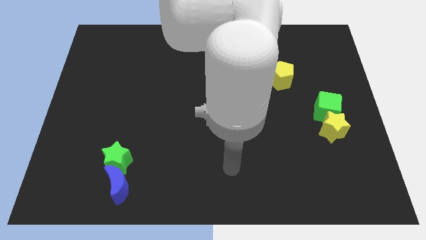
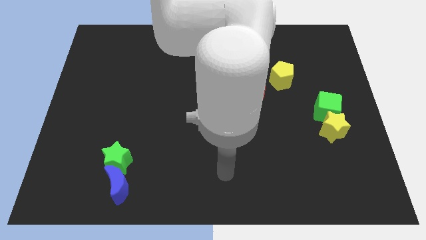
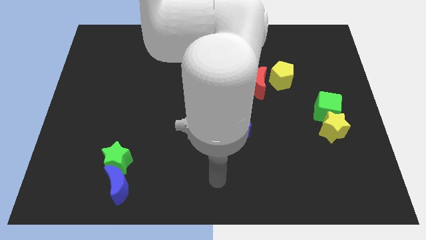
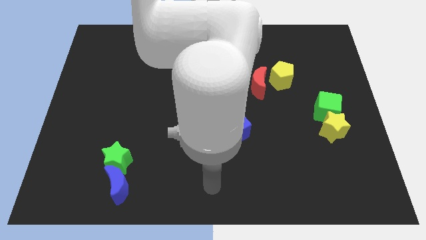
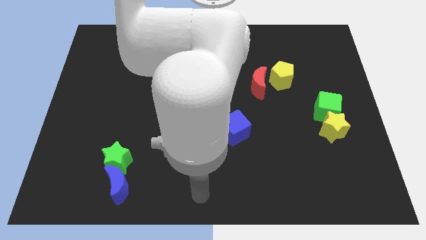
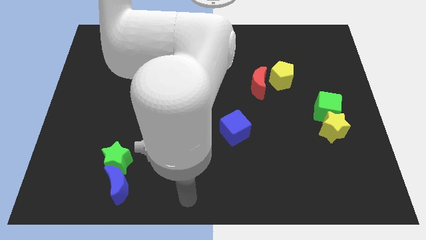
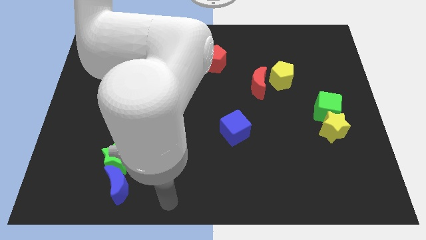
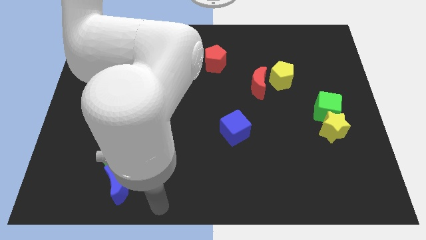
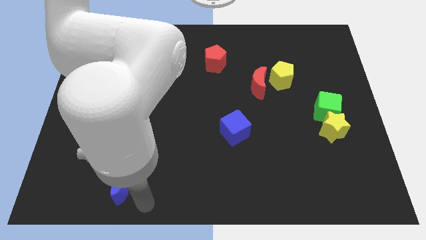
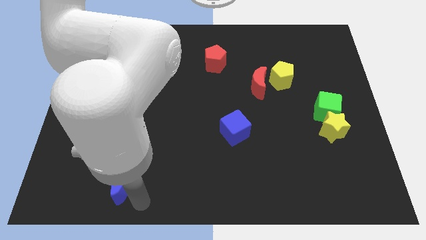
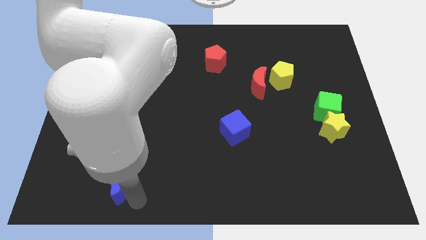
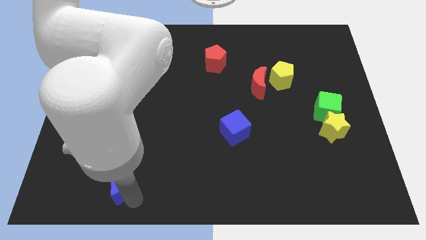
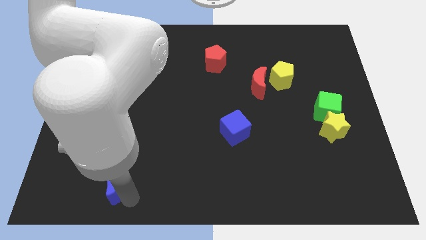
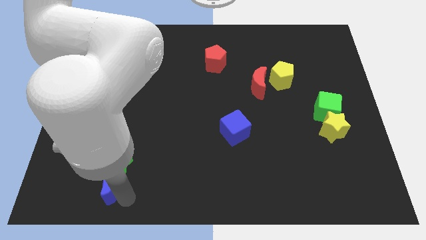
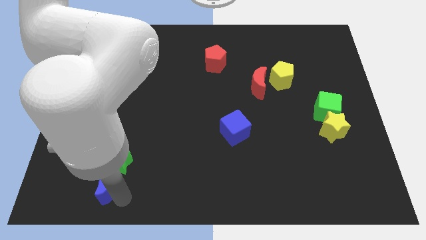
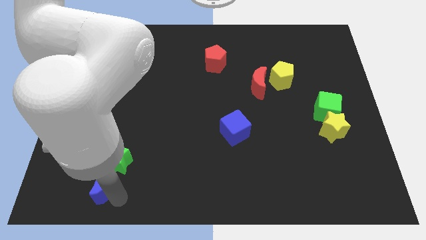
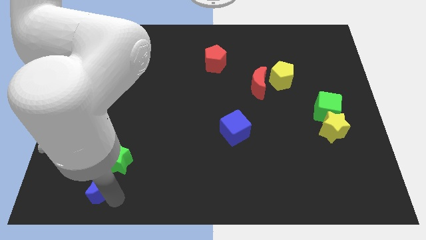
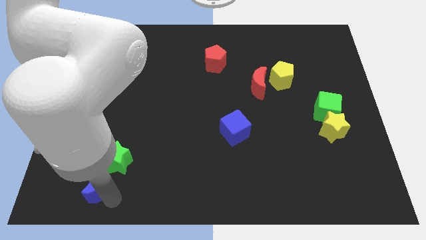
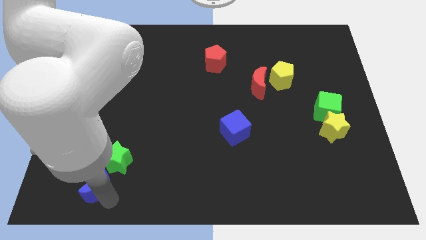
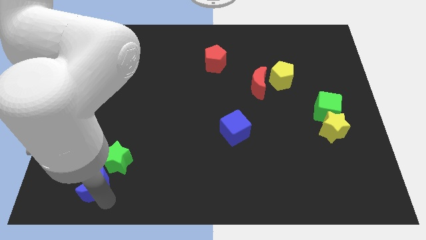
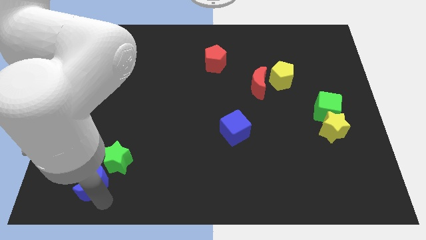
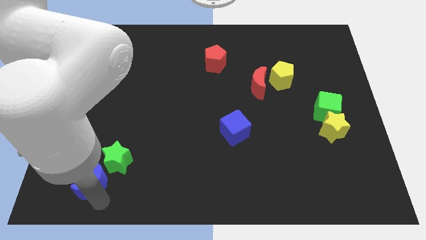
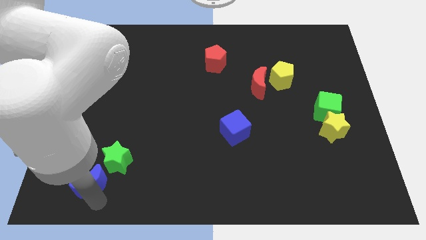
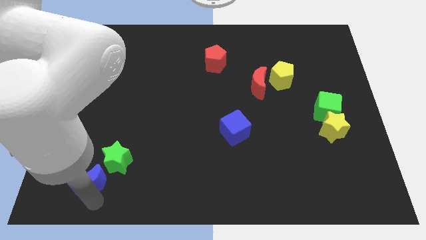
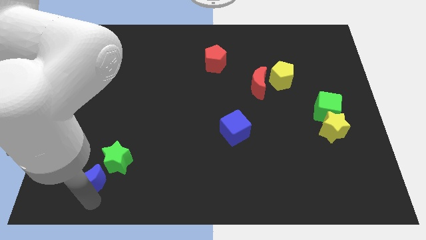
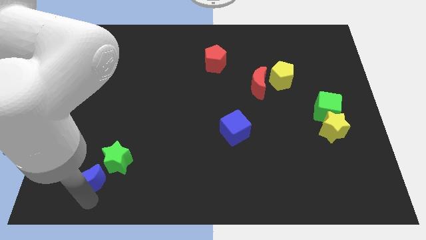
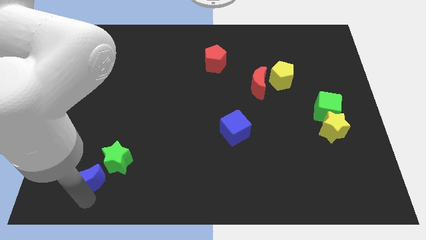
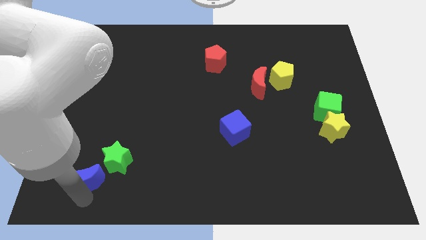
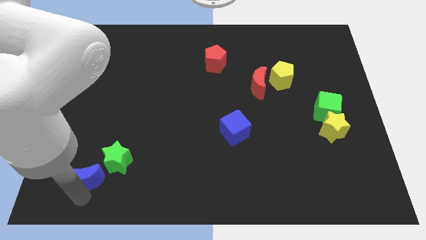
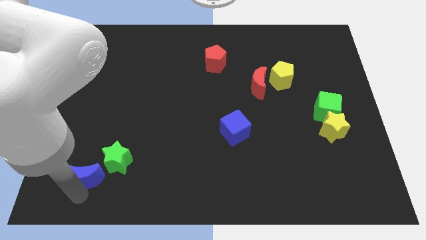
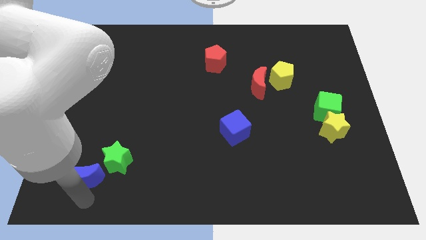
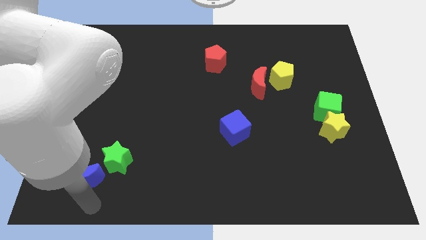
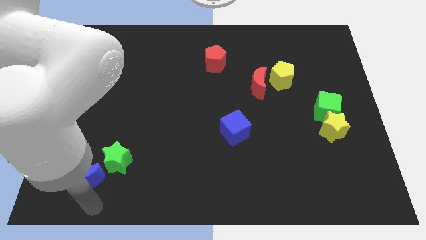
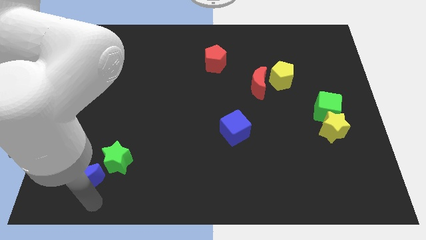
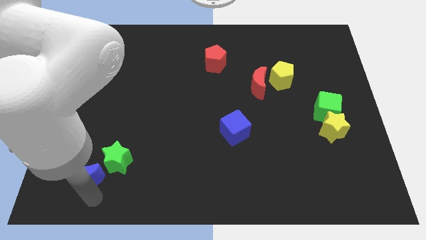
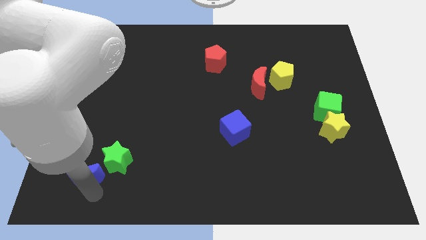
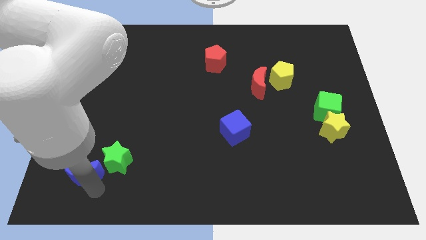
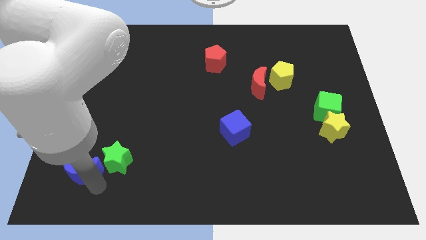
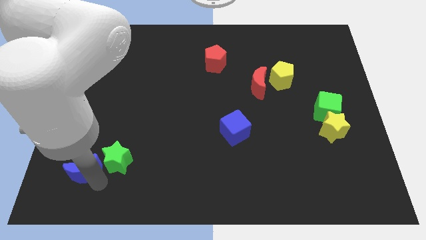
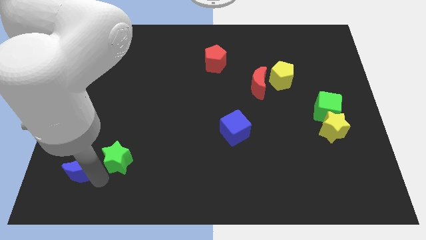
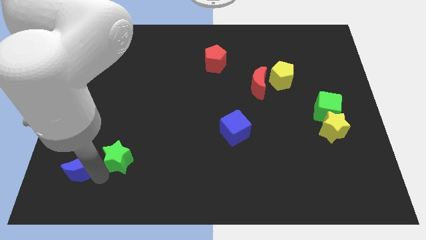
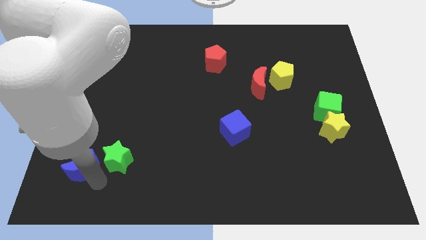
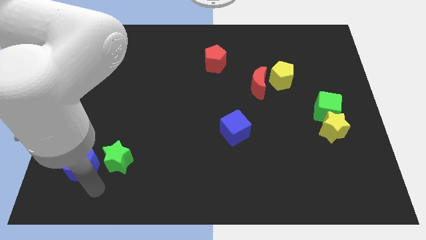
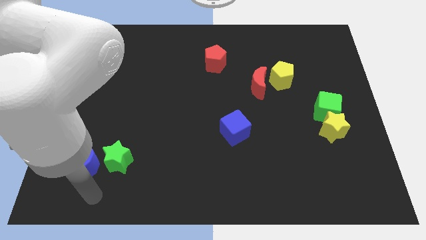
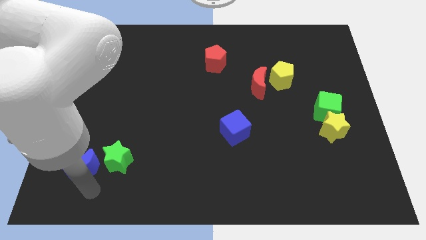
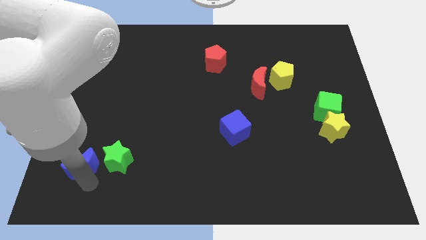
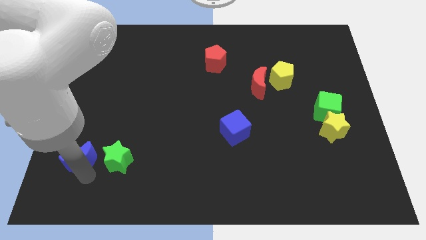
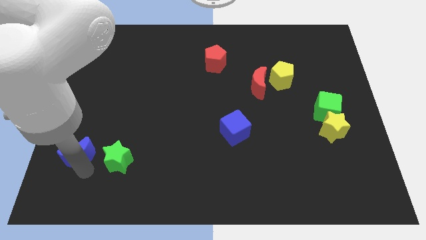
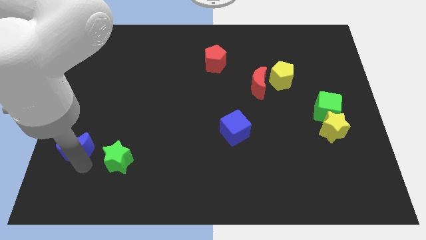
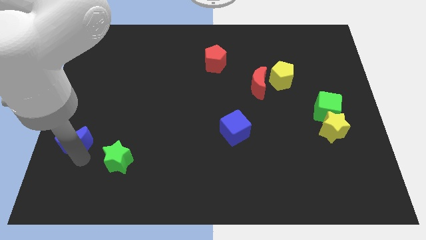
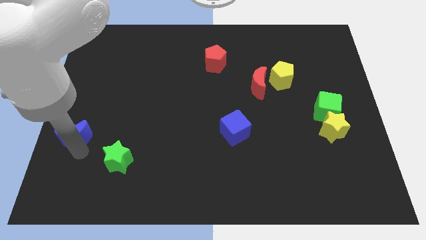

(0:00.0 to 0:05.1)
move the blue moon to the center left

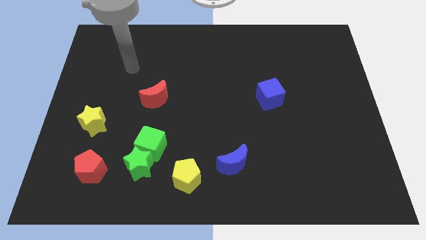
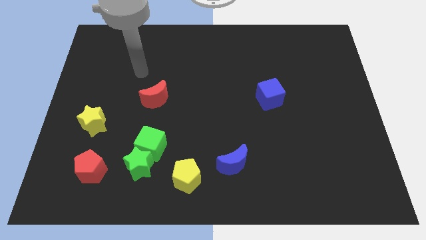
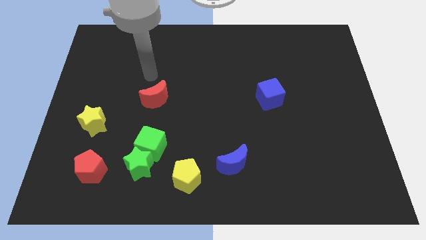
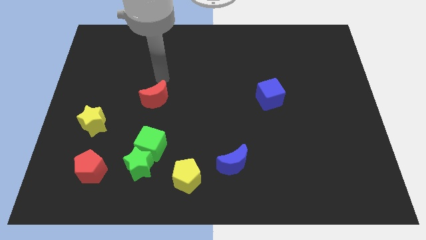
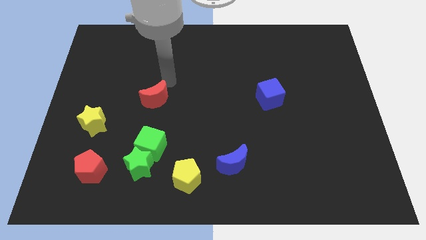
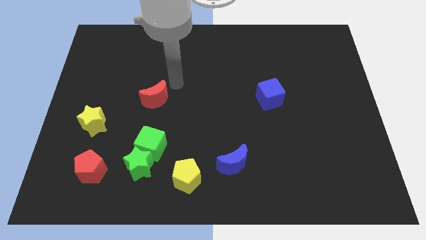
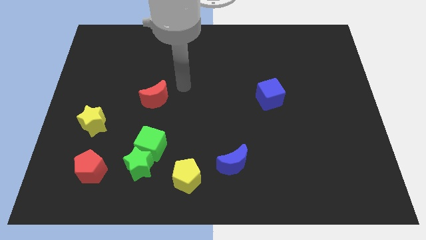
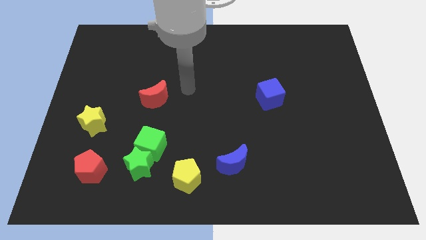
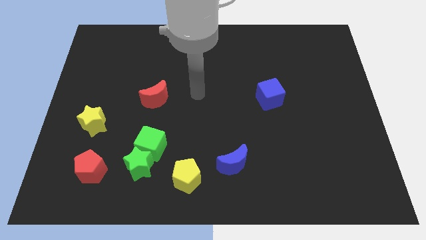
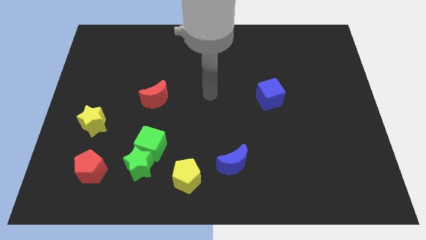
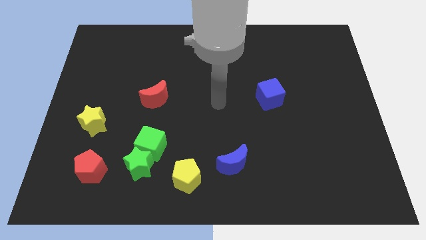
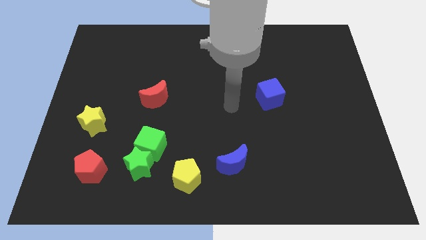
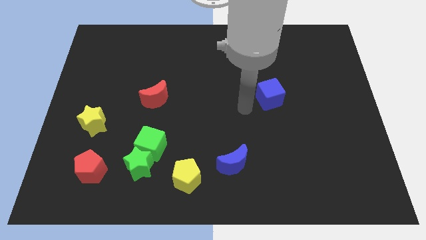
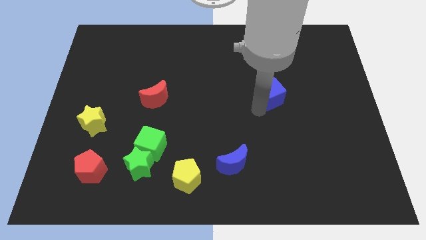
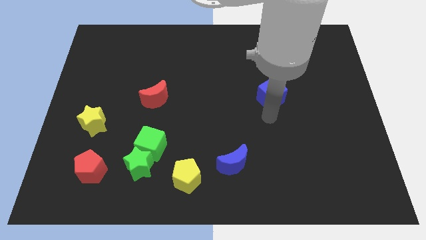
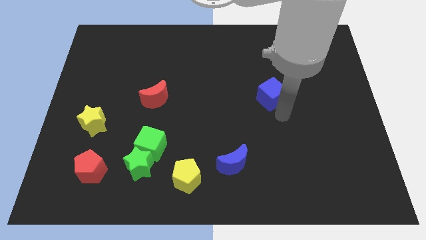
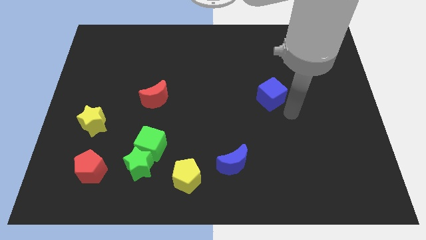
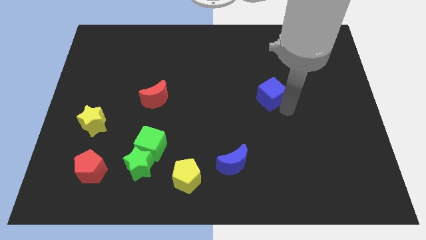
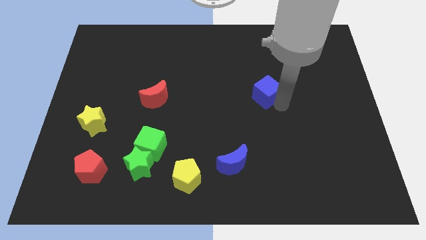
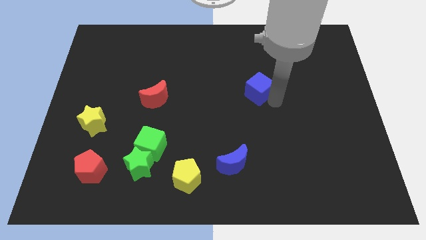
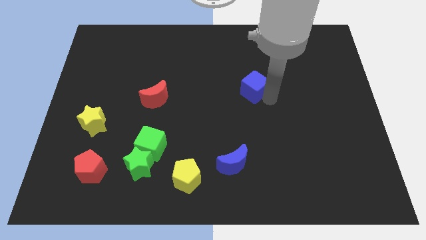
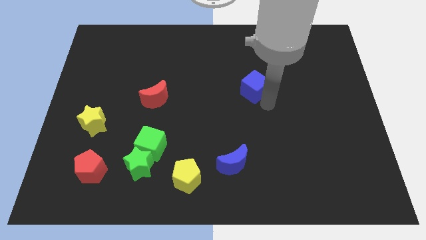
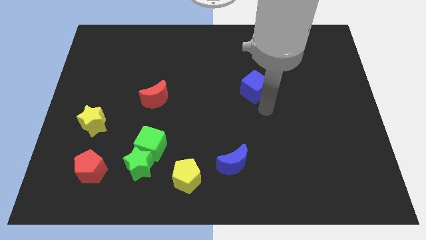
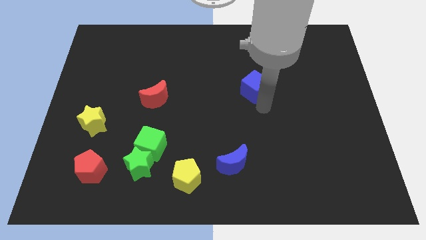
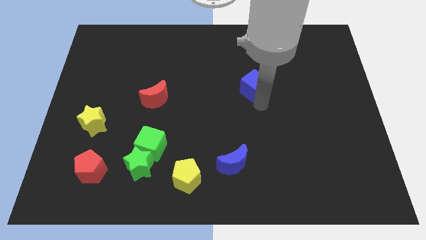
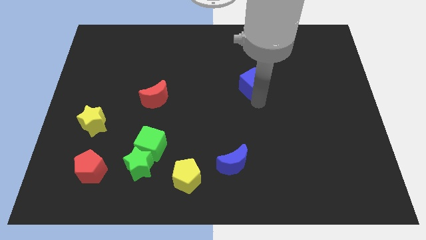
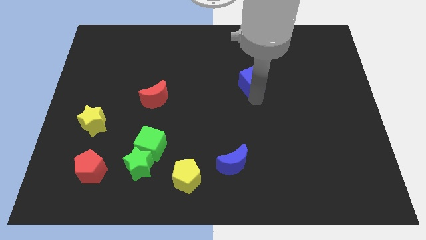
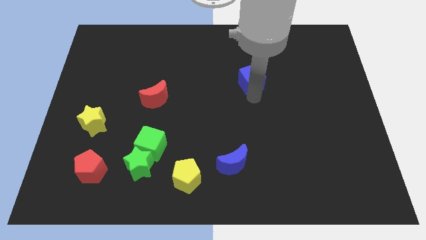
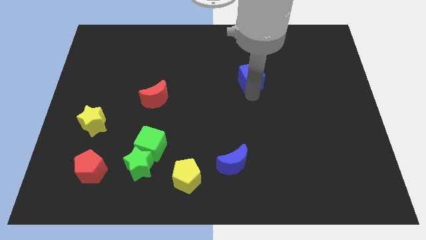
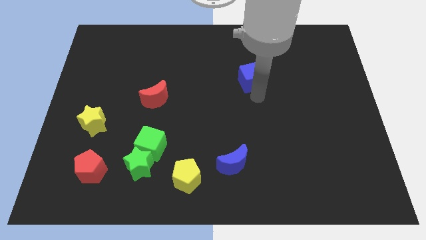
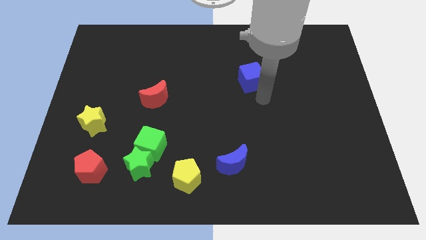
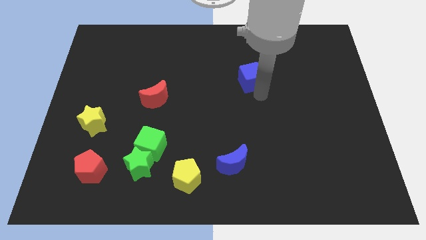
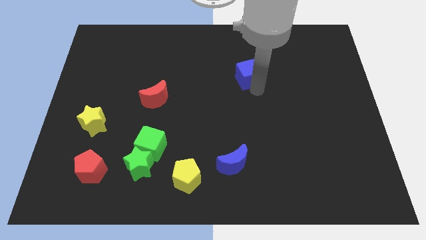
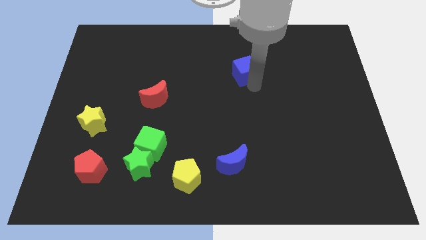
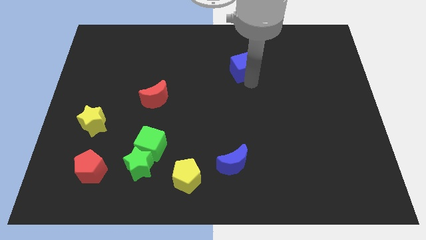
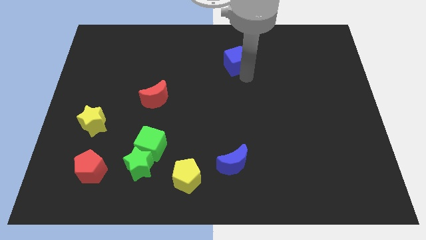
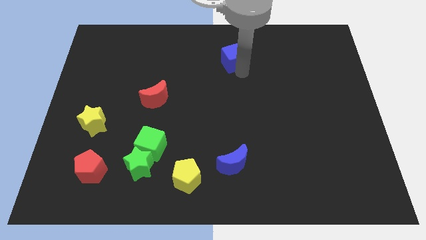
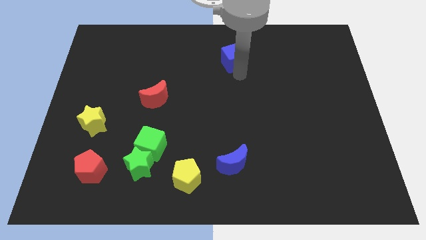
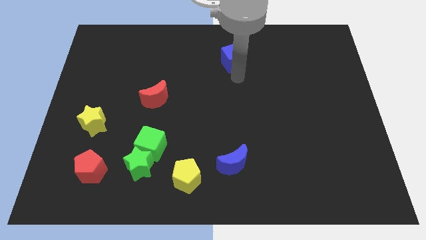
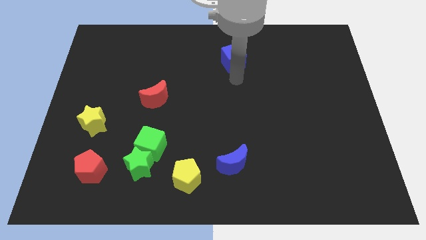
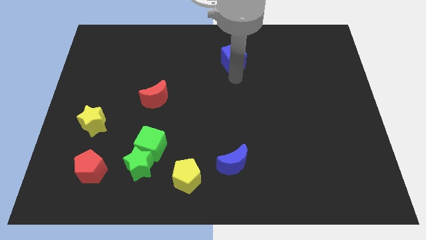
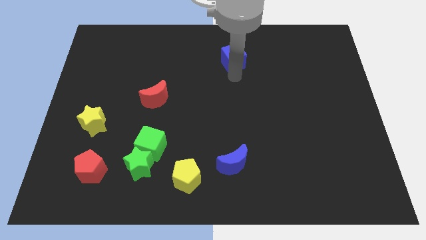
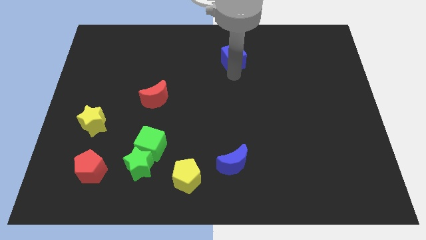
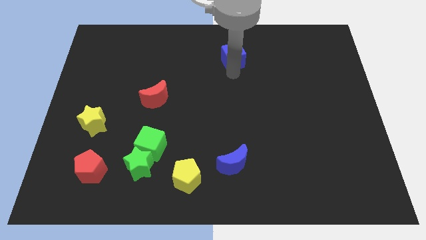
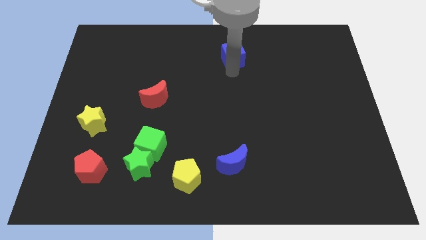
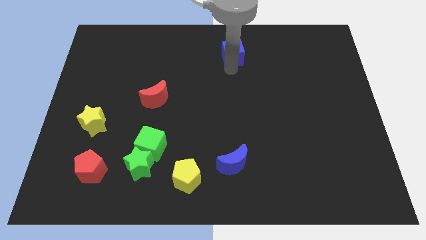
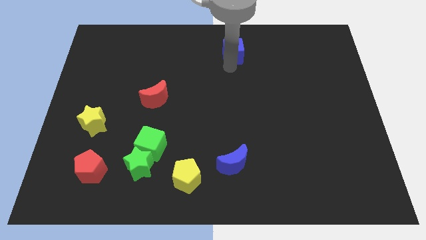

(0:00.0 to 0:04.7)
slide the blue cube to the towards your base
